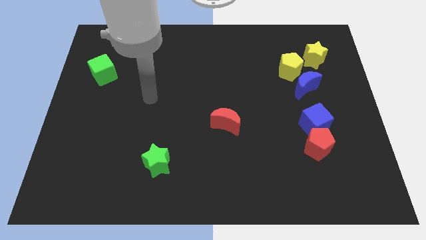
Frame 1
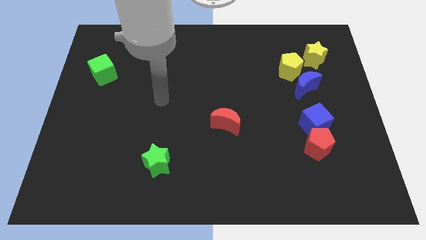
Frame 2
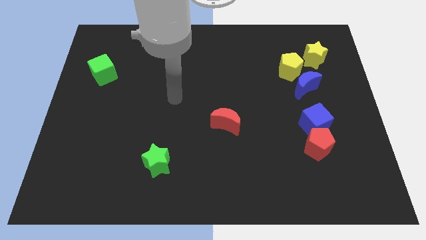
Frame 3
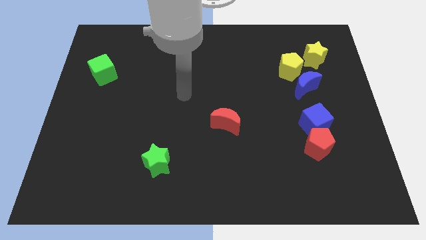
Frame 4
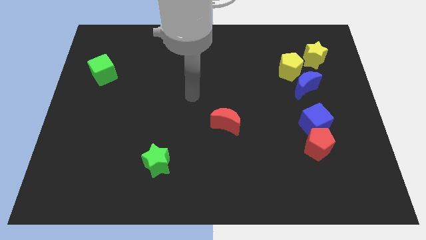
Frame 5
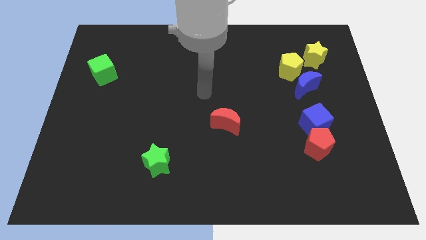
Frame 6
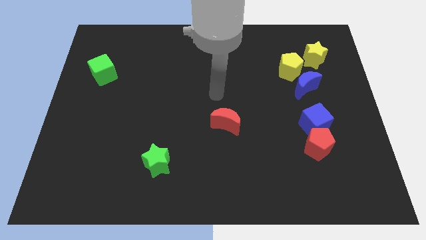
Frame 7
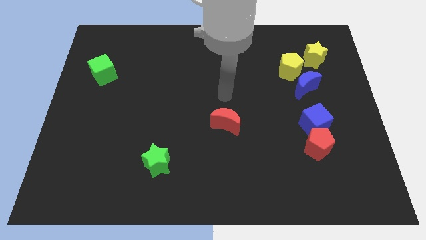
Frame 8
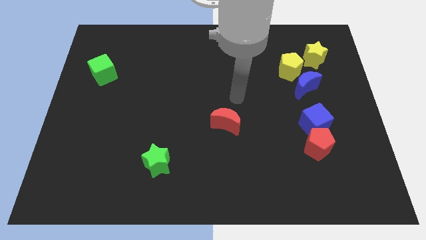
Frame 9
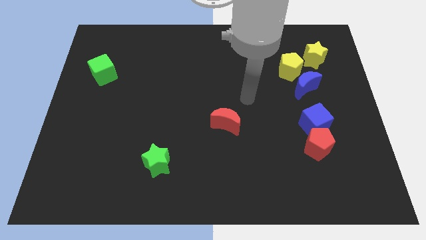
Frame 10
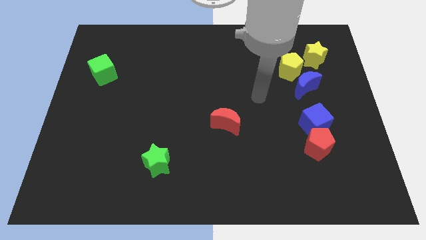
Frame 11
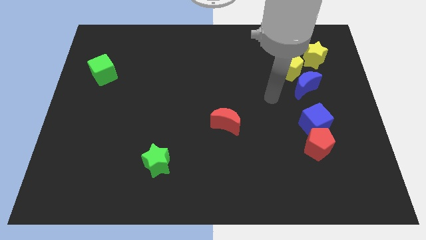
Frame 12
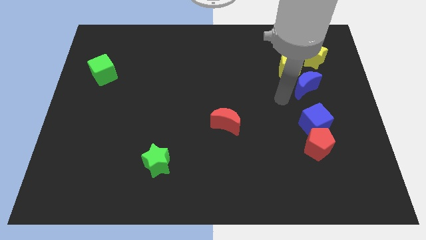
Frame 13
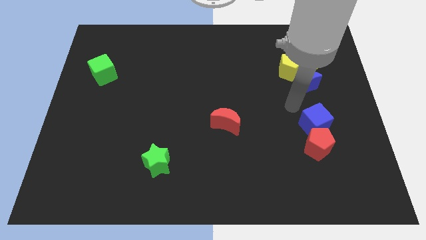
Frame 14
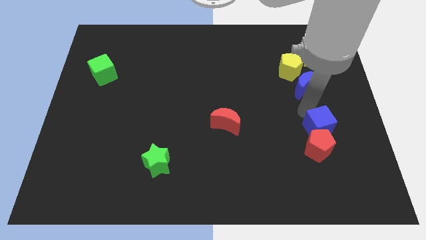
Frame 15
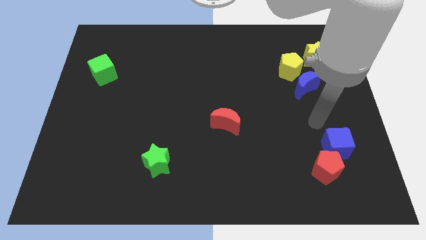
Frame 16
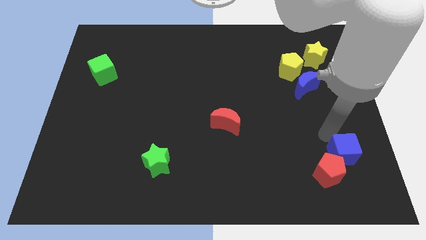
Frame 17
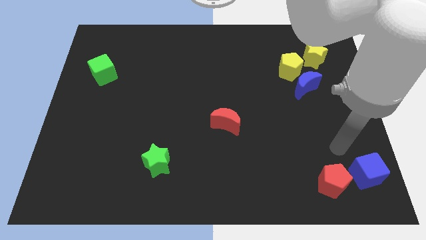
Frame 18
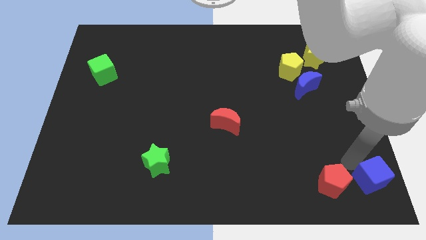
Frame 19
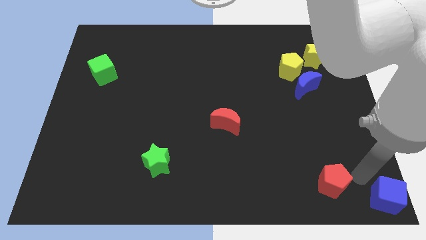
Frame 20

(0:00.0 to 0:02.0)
separate the red pentagon from the blue cube

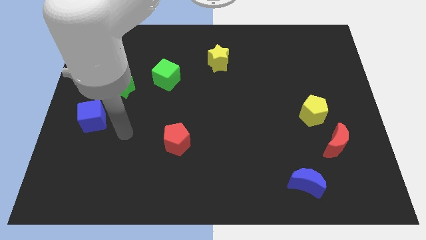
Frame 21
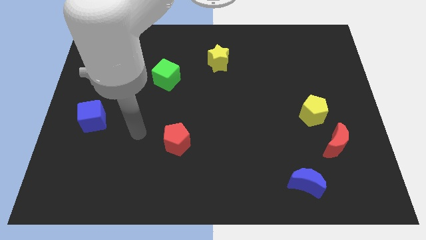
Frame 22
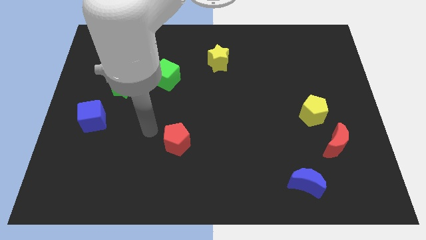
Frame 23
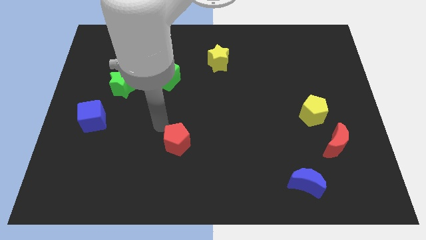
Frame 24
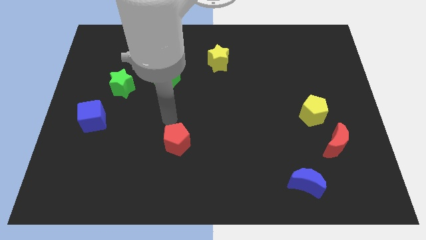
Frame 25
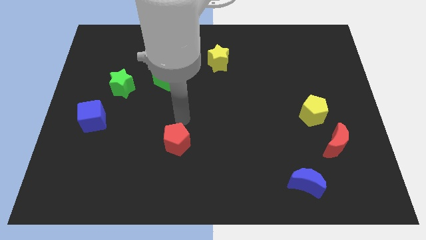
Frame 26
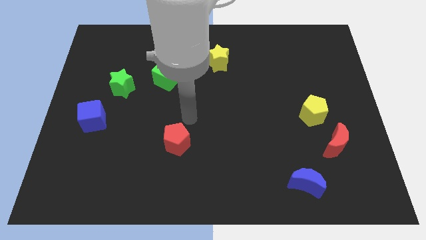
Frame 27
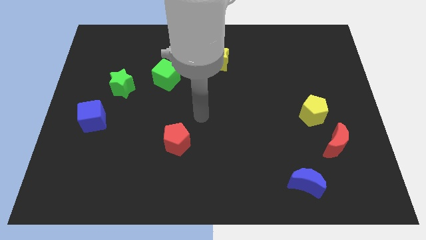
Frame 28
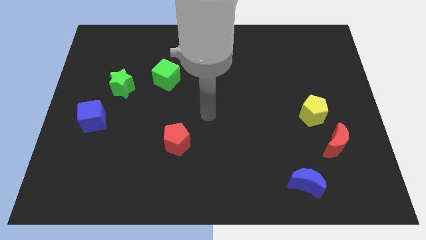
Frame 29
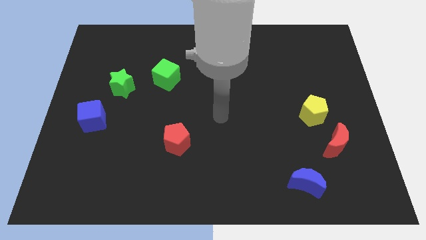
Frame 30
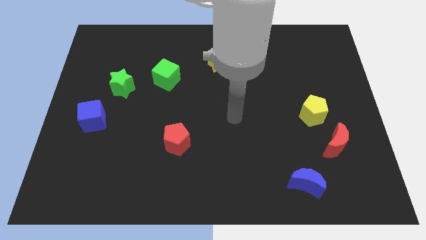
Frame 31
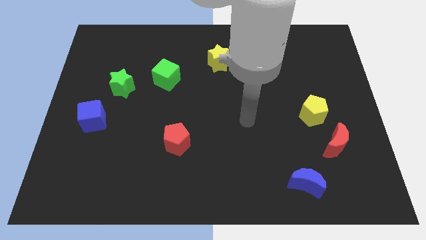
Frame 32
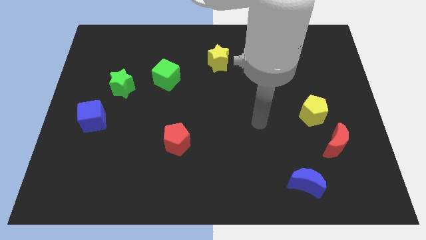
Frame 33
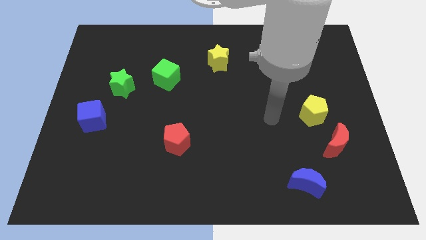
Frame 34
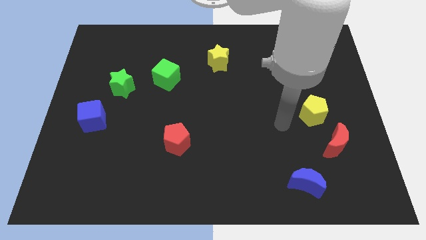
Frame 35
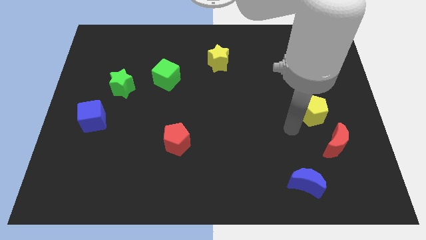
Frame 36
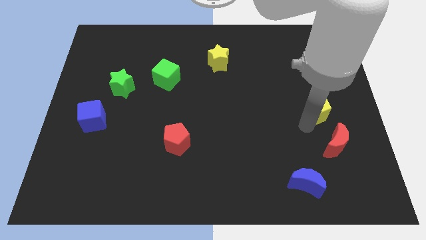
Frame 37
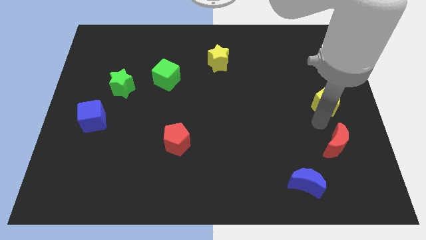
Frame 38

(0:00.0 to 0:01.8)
pull the red moon apart from the yellow pentagon

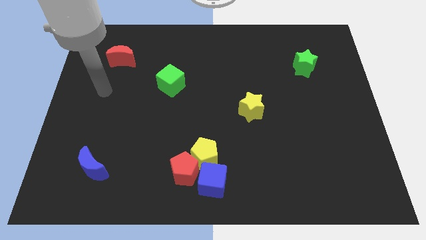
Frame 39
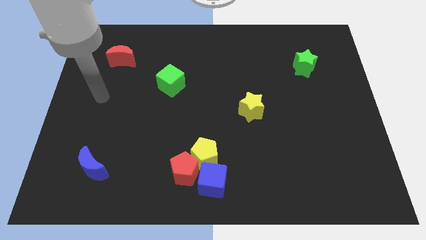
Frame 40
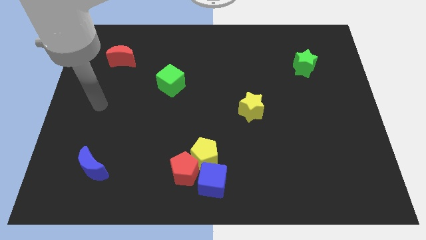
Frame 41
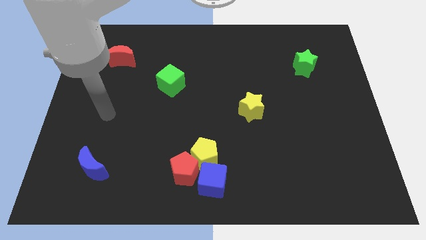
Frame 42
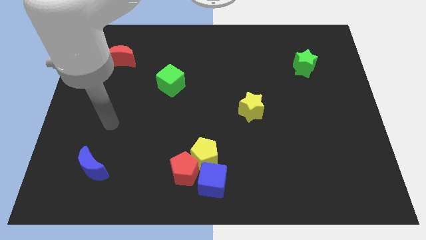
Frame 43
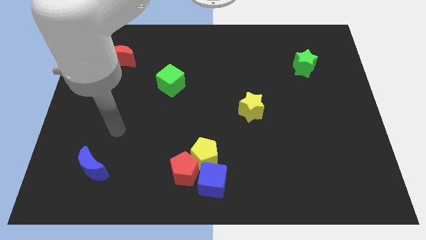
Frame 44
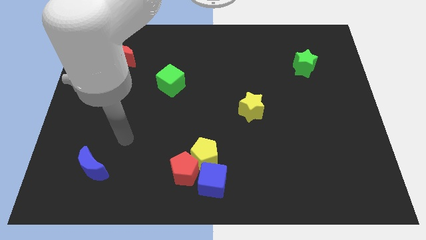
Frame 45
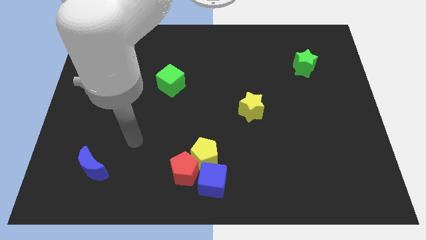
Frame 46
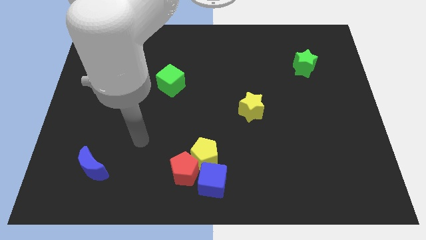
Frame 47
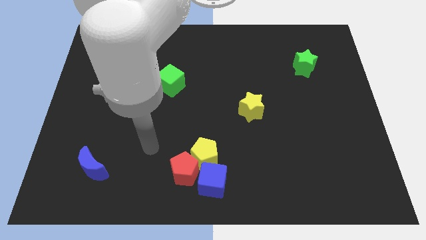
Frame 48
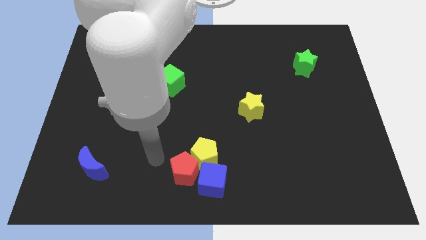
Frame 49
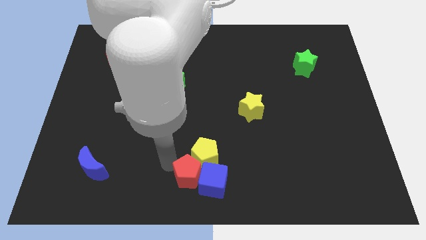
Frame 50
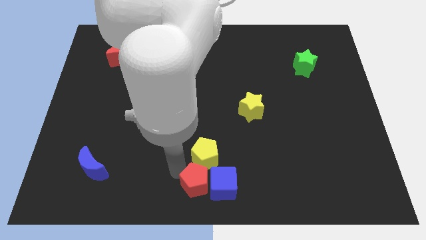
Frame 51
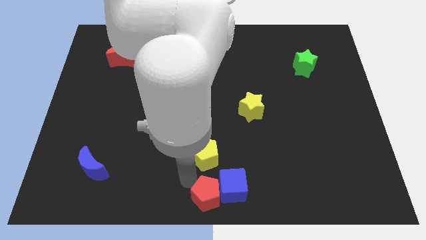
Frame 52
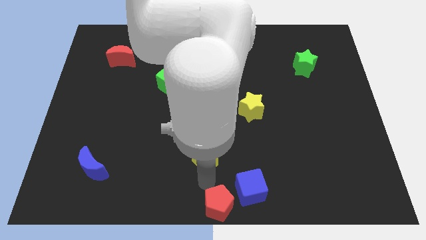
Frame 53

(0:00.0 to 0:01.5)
pull the yellow pentagon apart from the red pentagon and blue cube

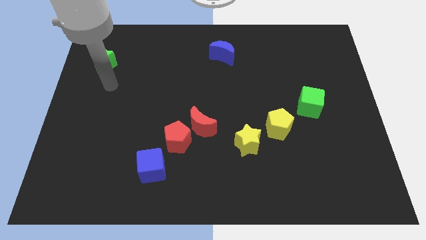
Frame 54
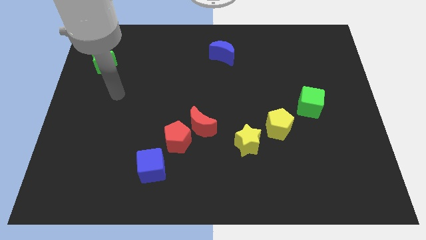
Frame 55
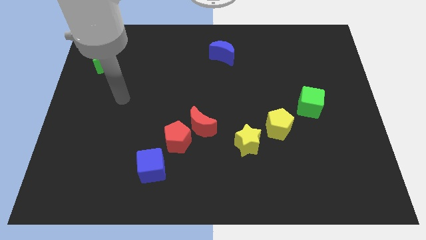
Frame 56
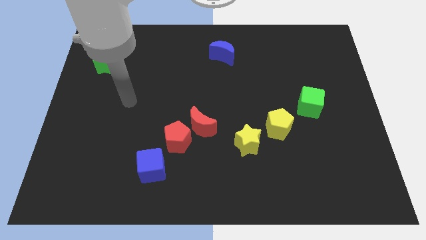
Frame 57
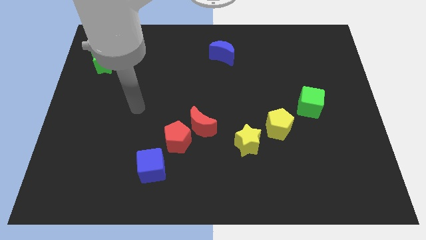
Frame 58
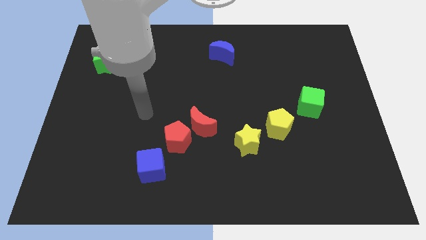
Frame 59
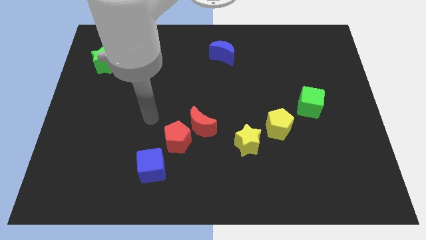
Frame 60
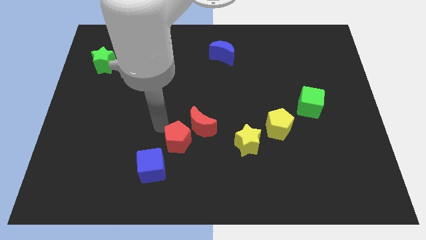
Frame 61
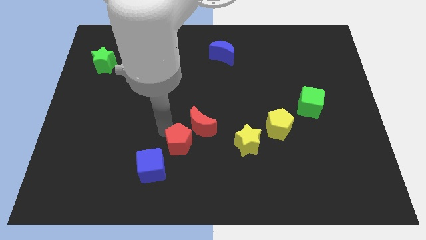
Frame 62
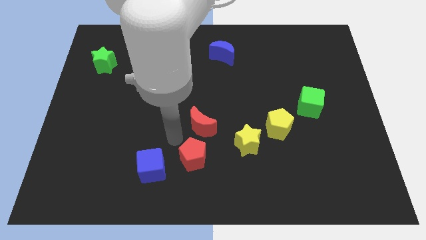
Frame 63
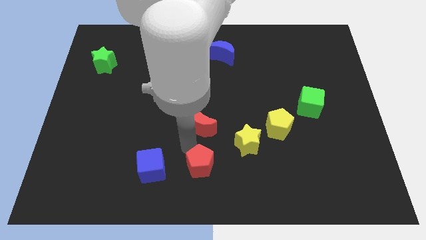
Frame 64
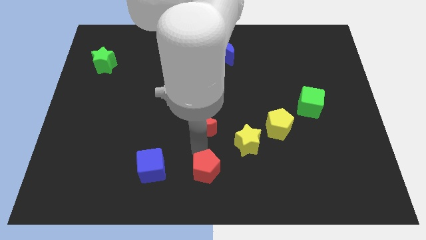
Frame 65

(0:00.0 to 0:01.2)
move the red moon away from the red pentagon

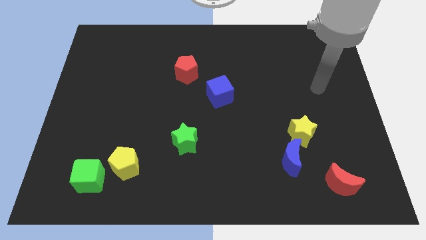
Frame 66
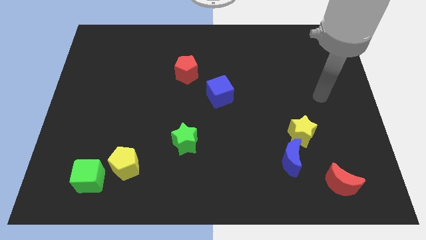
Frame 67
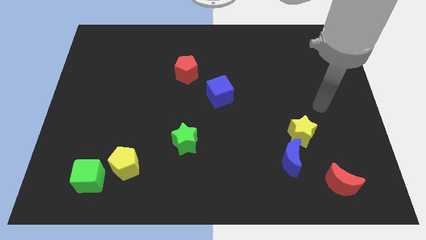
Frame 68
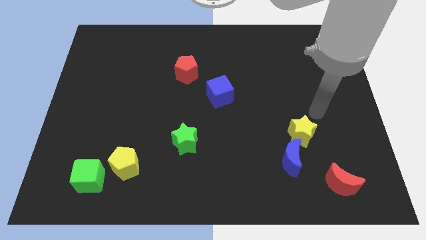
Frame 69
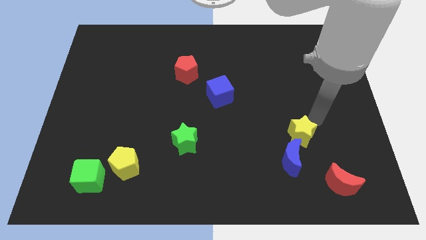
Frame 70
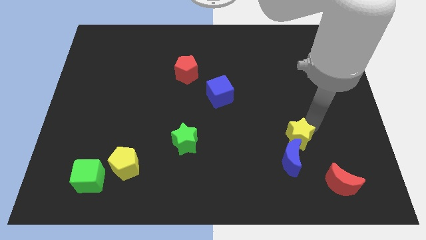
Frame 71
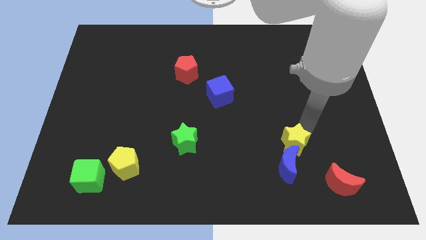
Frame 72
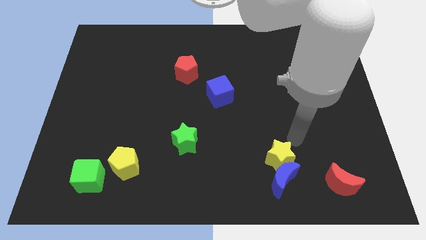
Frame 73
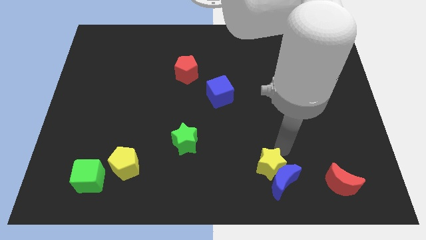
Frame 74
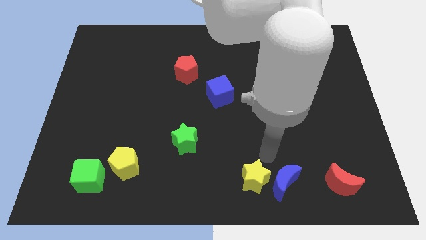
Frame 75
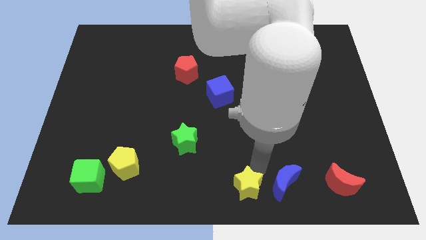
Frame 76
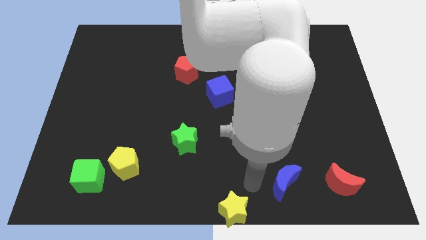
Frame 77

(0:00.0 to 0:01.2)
separate the blue moon from the yellow star

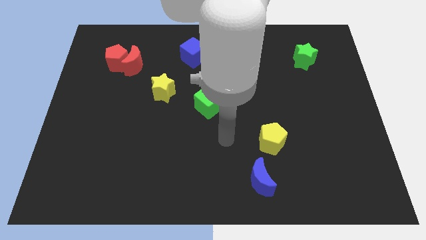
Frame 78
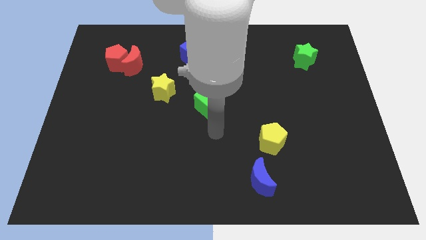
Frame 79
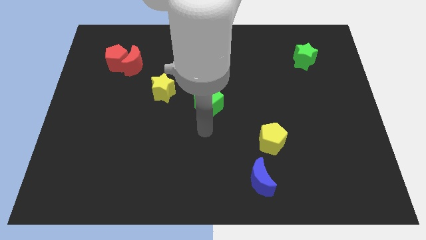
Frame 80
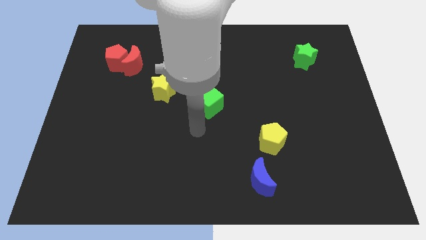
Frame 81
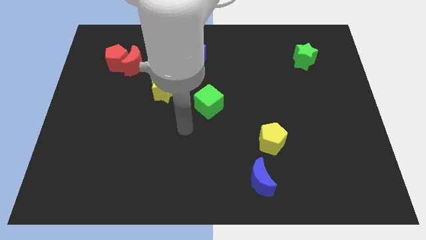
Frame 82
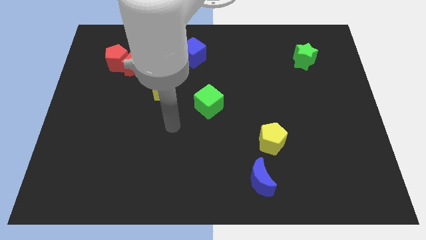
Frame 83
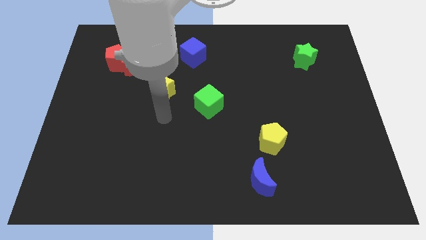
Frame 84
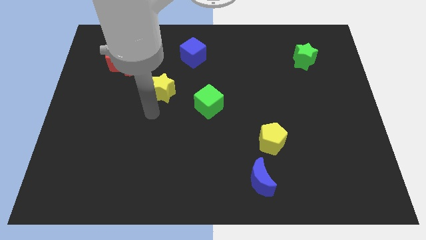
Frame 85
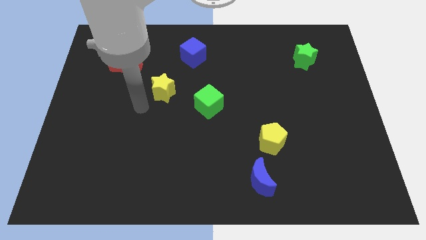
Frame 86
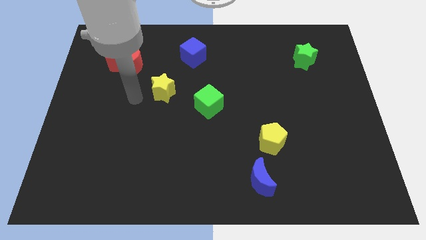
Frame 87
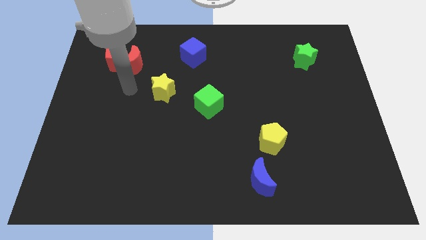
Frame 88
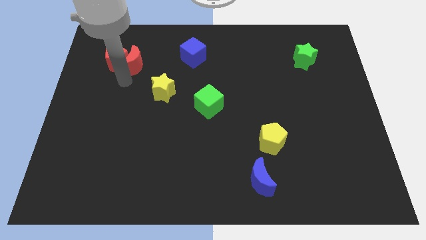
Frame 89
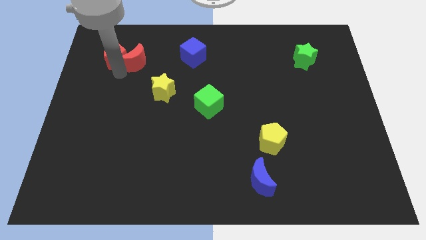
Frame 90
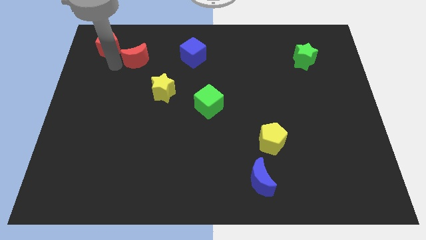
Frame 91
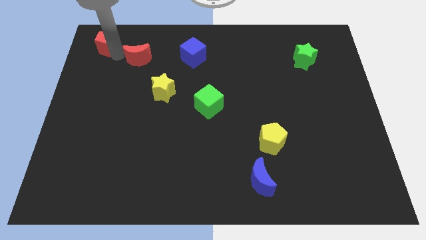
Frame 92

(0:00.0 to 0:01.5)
separate the red moon from the red pentagon
